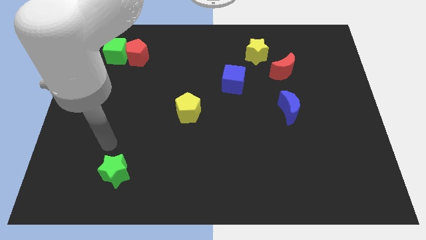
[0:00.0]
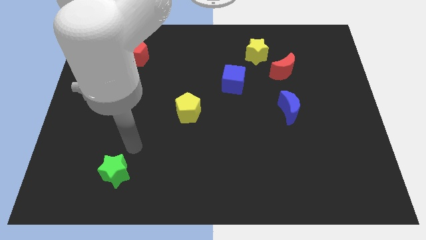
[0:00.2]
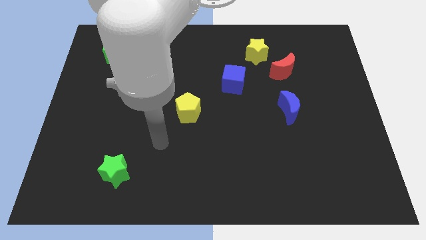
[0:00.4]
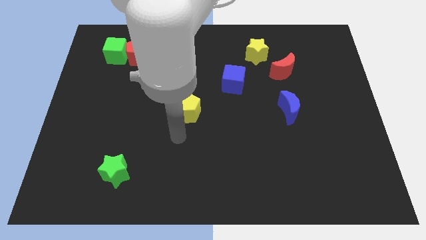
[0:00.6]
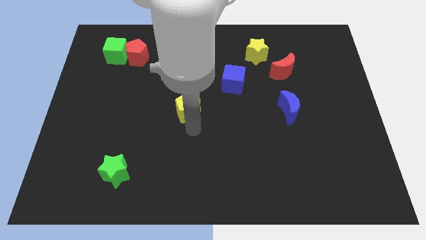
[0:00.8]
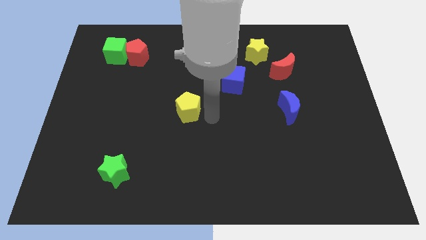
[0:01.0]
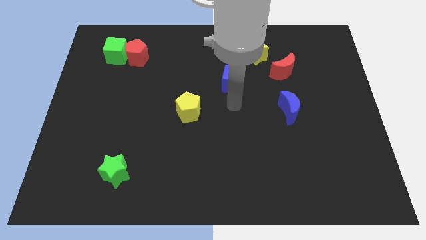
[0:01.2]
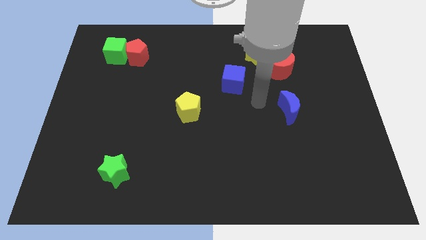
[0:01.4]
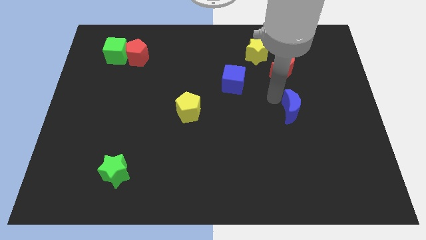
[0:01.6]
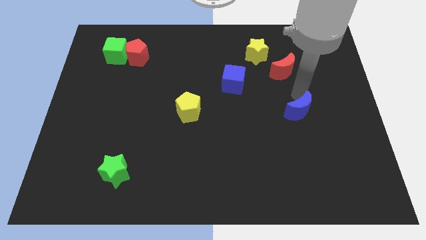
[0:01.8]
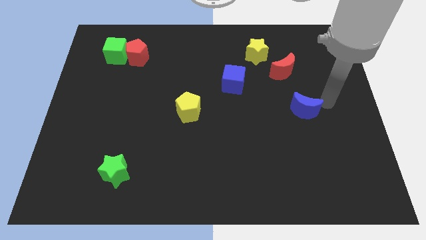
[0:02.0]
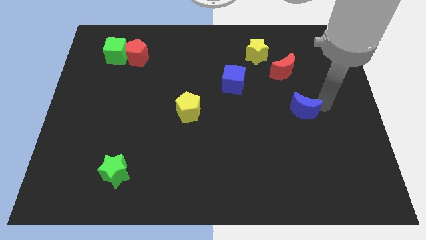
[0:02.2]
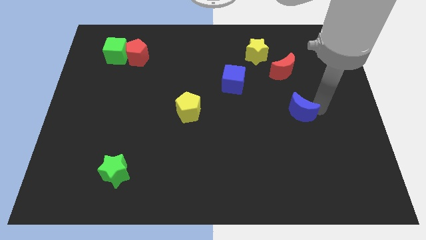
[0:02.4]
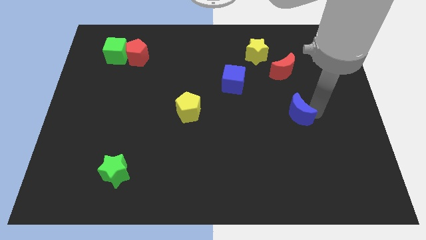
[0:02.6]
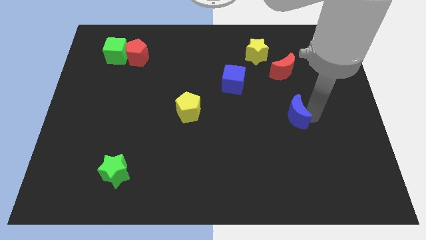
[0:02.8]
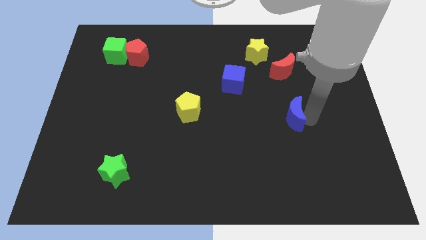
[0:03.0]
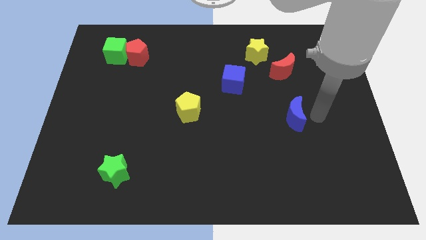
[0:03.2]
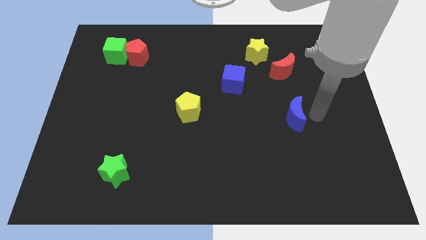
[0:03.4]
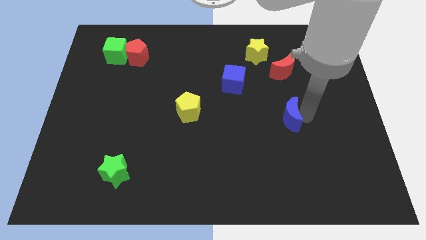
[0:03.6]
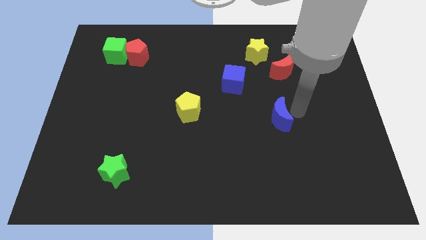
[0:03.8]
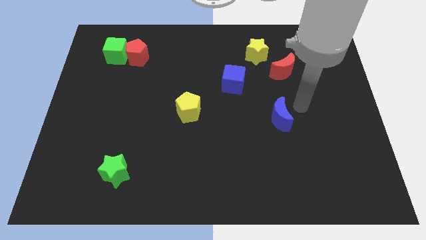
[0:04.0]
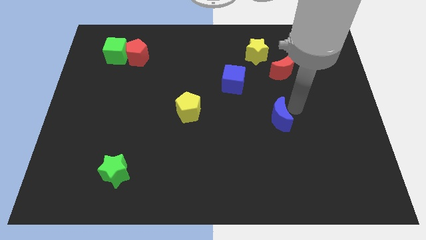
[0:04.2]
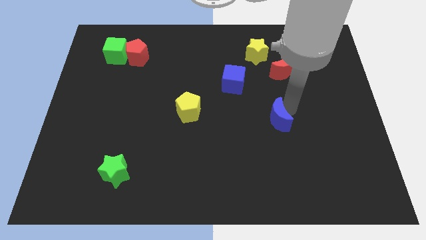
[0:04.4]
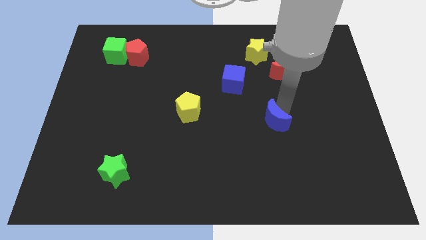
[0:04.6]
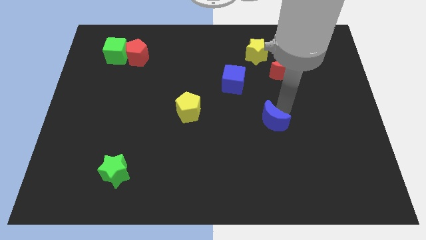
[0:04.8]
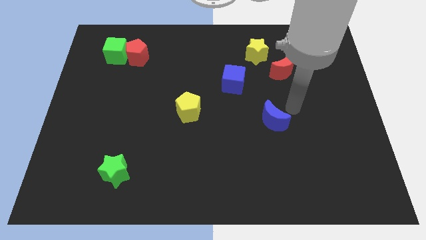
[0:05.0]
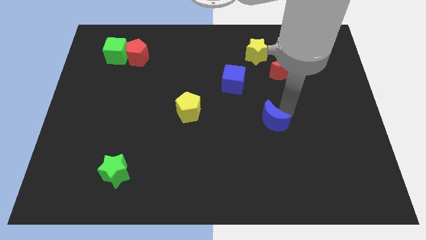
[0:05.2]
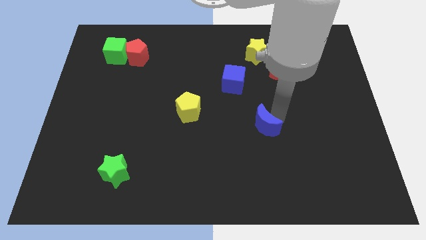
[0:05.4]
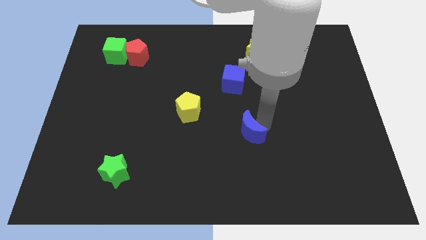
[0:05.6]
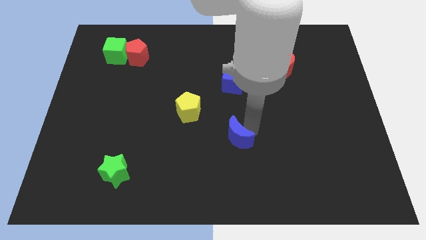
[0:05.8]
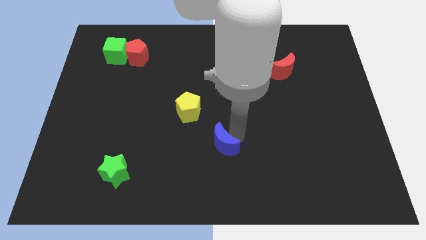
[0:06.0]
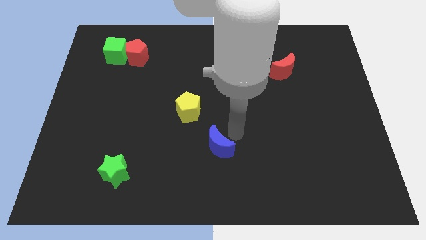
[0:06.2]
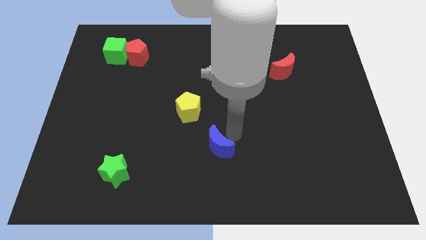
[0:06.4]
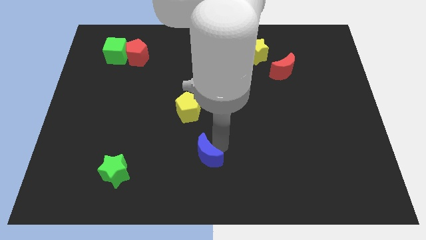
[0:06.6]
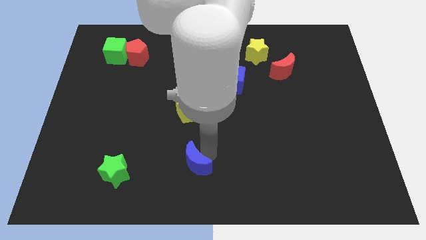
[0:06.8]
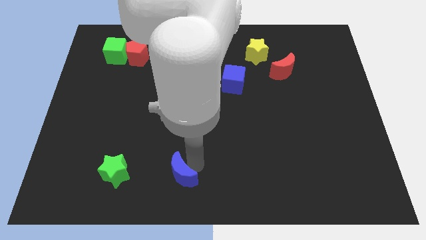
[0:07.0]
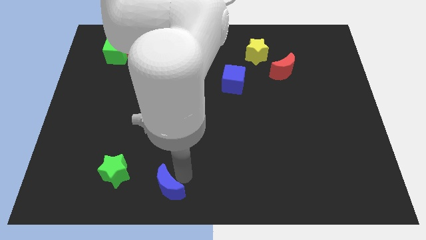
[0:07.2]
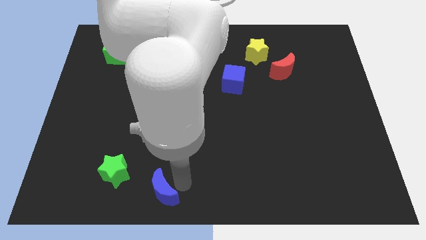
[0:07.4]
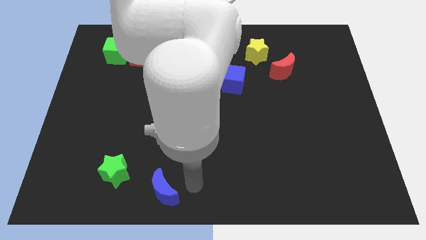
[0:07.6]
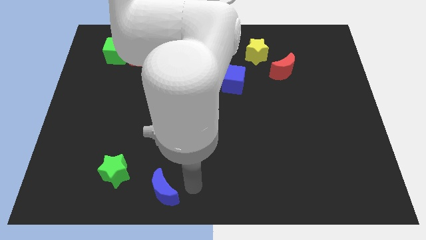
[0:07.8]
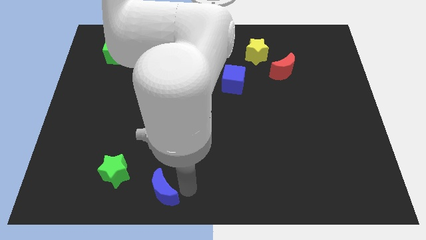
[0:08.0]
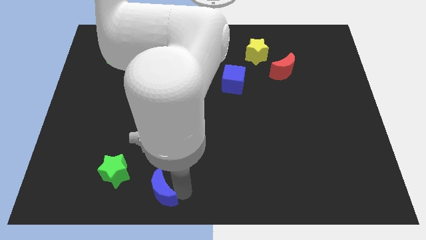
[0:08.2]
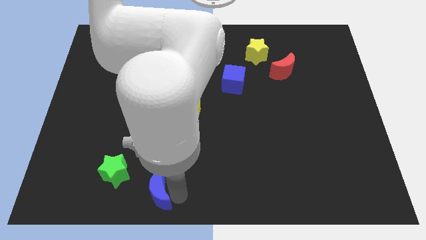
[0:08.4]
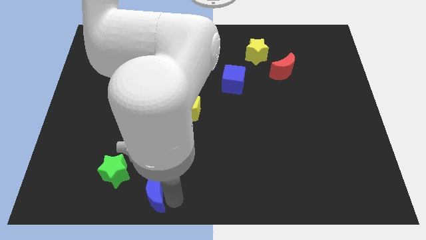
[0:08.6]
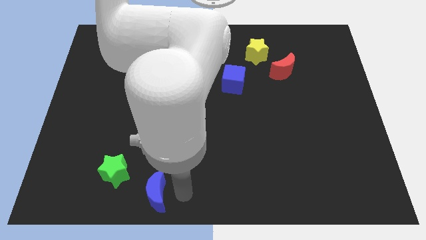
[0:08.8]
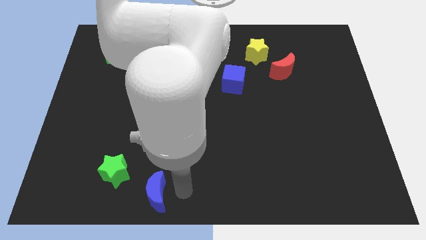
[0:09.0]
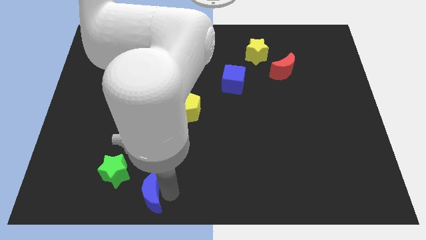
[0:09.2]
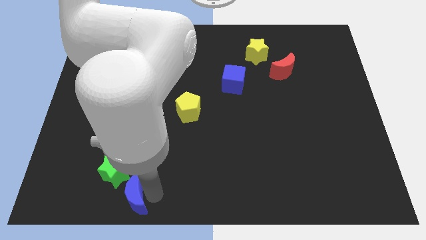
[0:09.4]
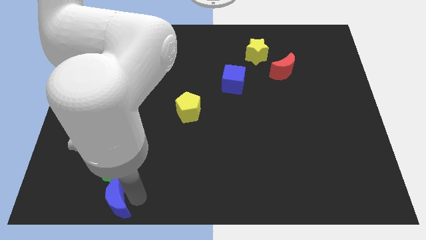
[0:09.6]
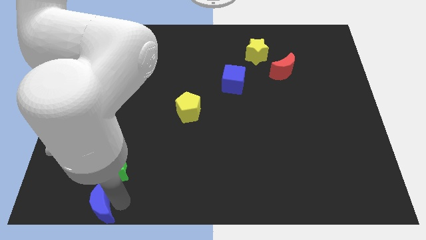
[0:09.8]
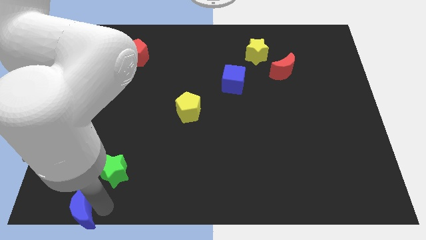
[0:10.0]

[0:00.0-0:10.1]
move the blue moon to the lower left corner

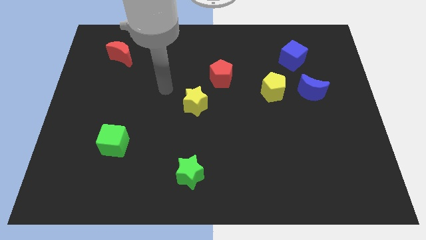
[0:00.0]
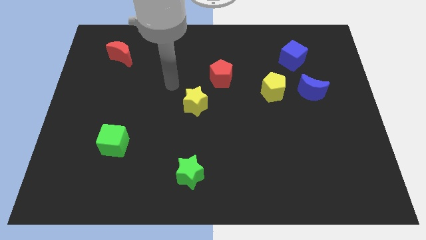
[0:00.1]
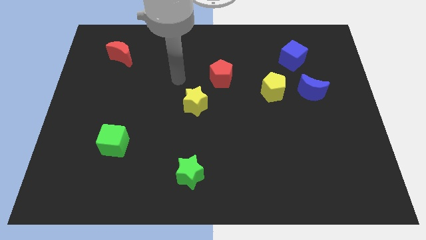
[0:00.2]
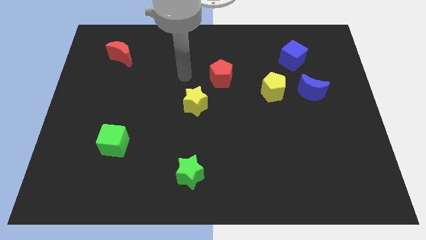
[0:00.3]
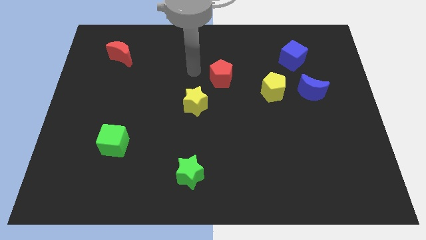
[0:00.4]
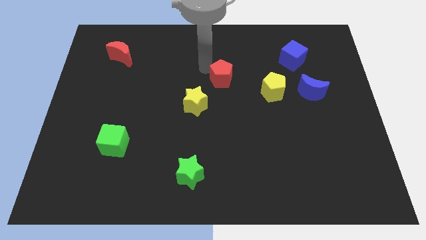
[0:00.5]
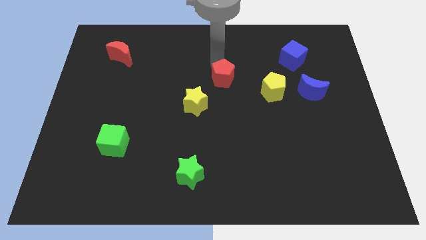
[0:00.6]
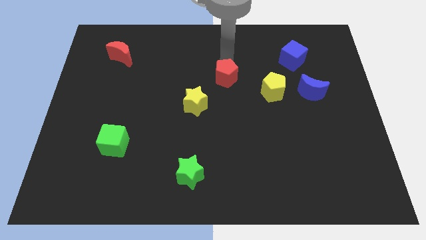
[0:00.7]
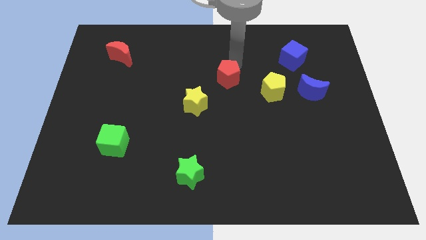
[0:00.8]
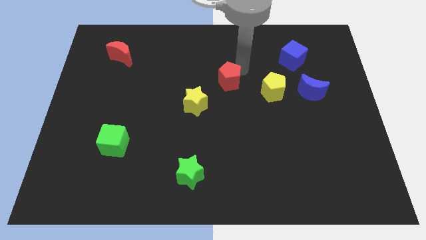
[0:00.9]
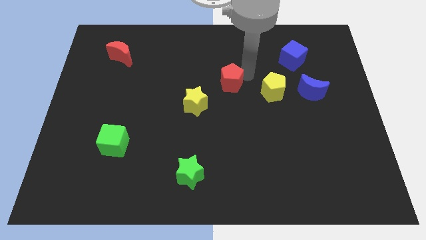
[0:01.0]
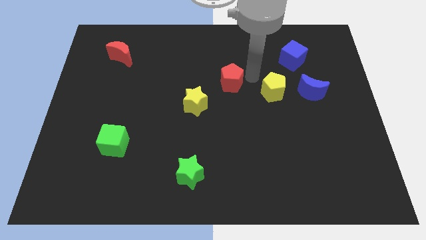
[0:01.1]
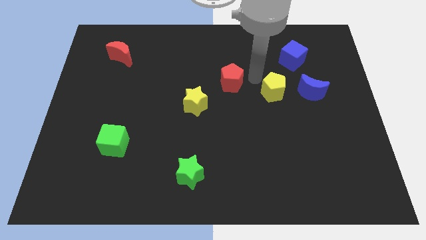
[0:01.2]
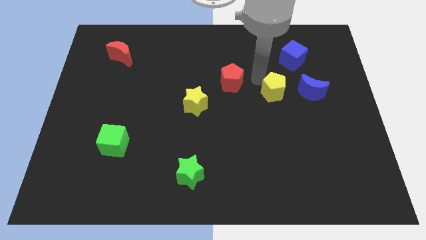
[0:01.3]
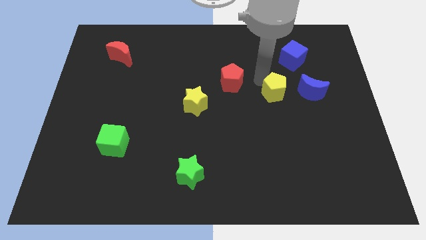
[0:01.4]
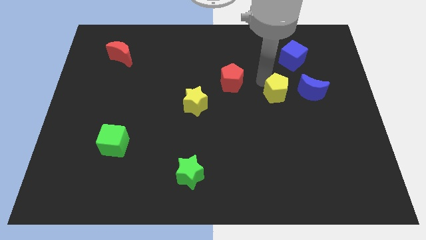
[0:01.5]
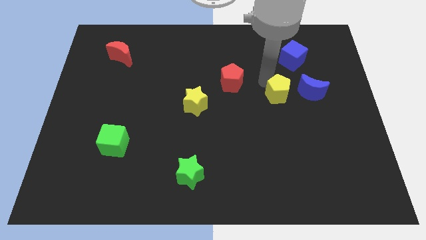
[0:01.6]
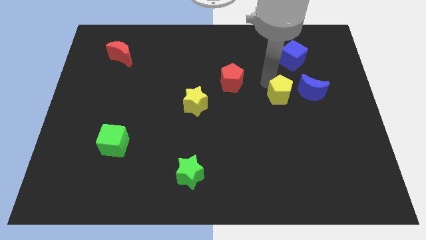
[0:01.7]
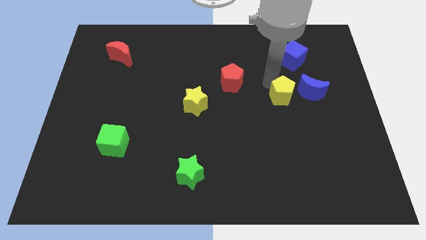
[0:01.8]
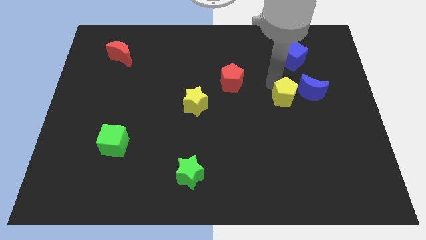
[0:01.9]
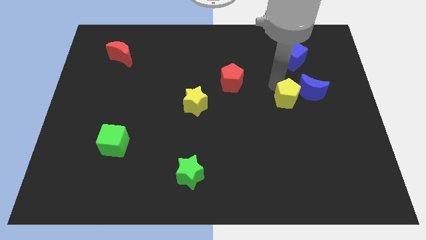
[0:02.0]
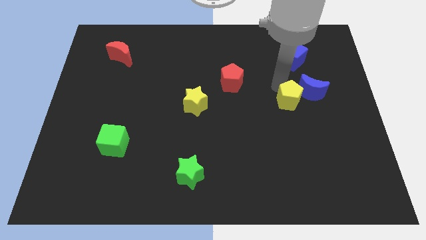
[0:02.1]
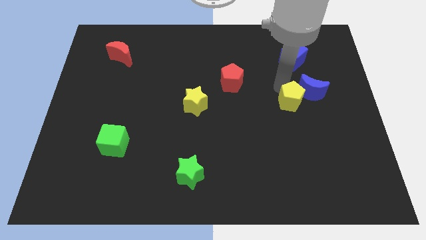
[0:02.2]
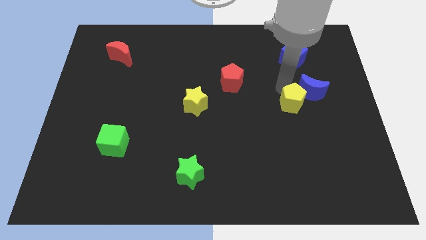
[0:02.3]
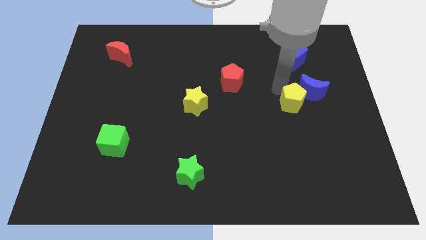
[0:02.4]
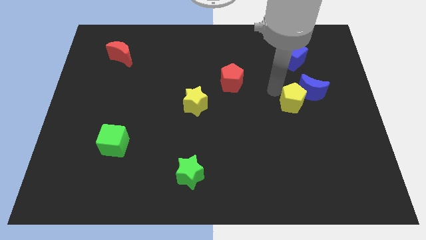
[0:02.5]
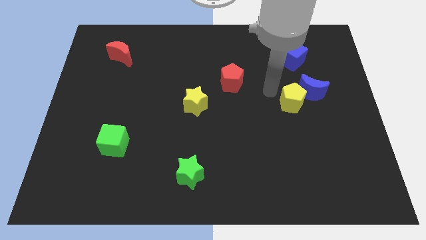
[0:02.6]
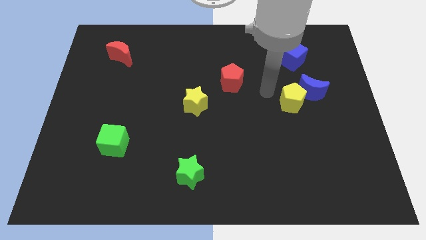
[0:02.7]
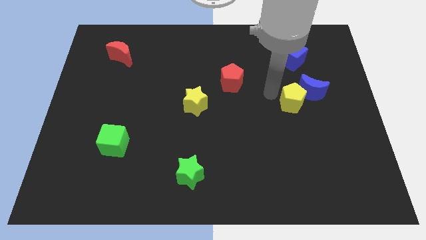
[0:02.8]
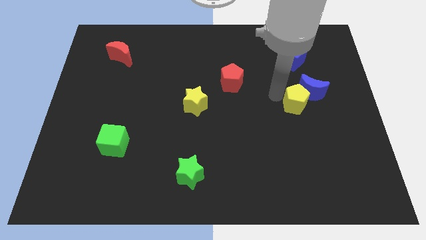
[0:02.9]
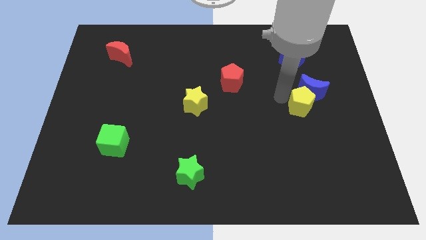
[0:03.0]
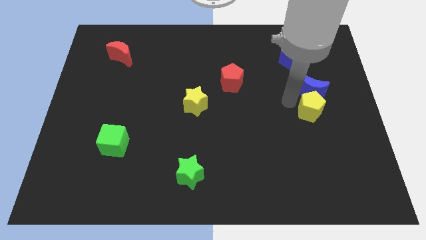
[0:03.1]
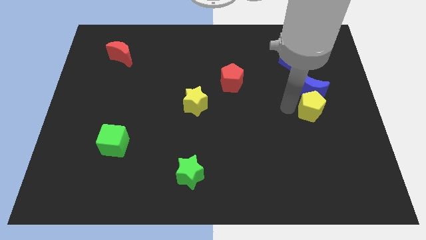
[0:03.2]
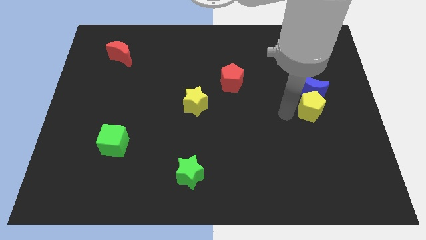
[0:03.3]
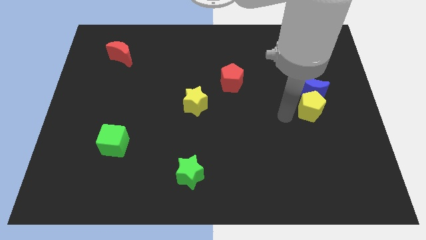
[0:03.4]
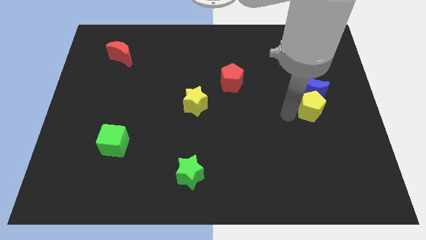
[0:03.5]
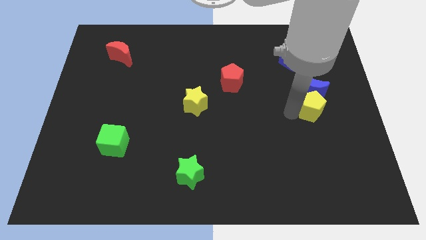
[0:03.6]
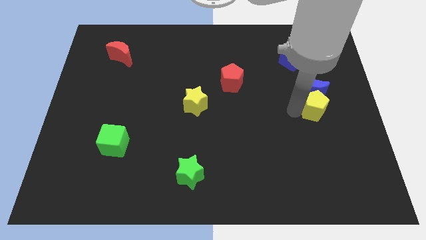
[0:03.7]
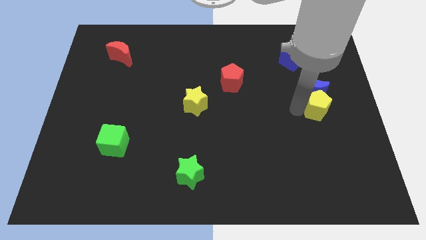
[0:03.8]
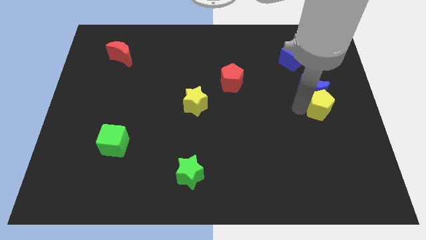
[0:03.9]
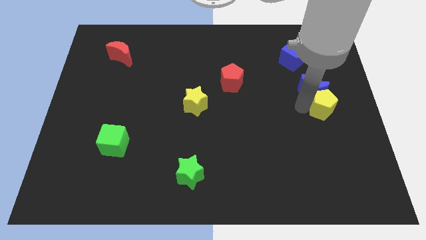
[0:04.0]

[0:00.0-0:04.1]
push the yellow pentagon to the right side of the board
